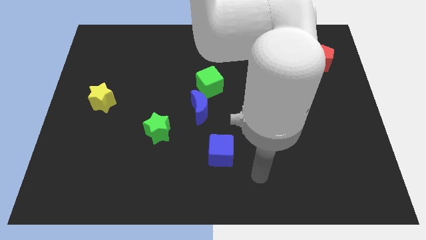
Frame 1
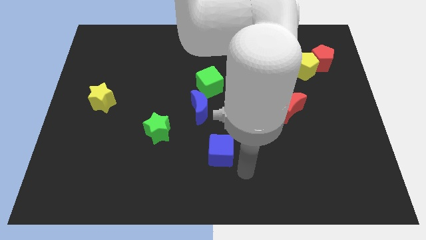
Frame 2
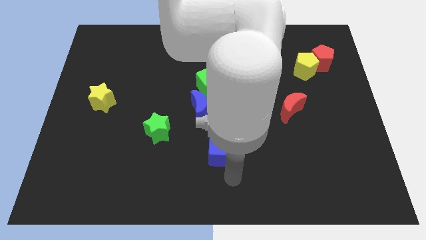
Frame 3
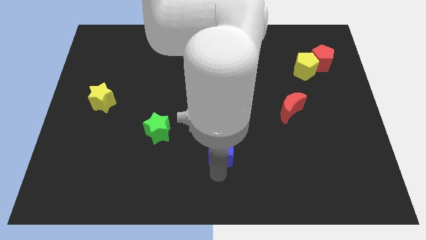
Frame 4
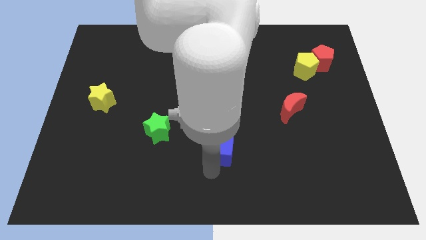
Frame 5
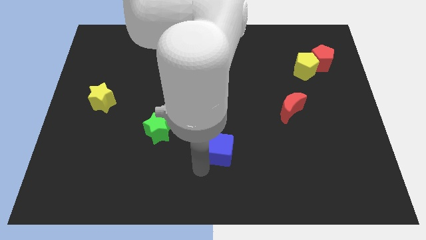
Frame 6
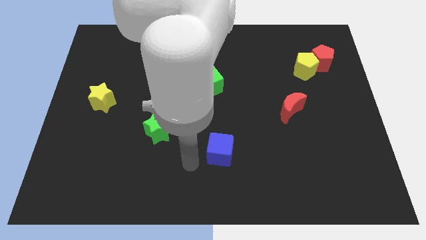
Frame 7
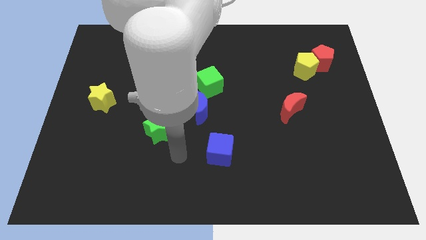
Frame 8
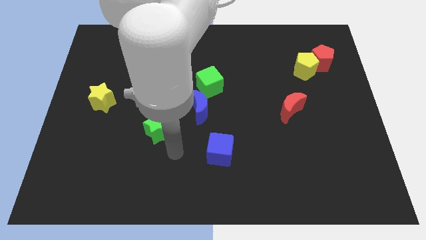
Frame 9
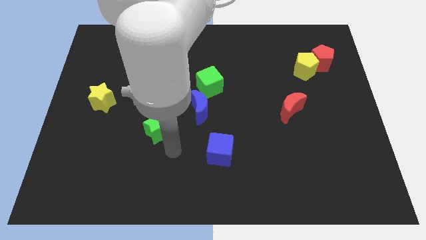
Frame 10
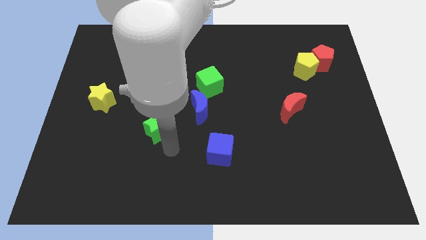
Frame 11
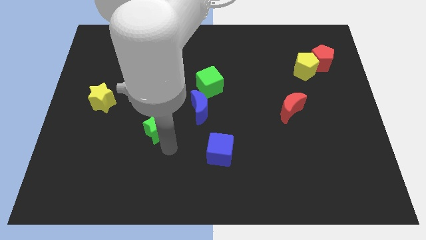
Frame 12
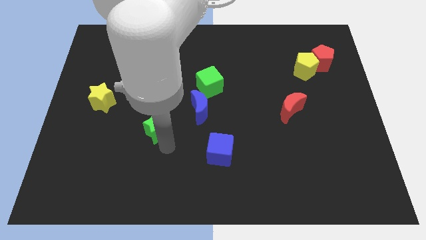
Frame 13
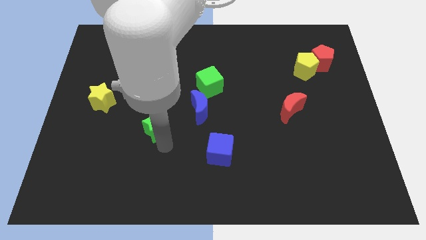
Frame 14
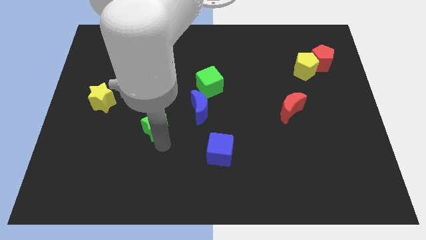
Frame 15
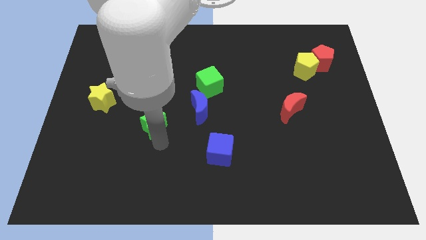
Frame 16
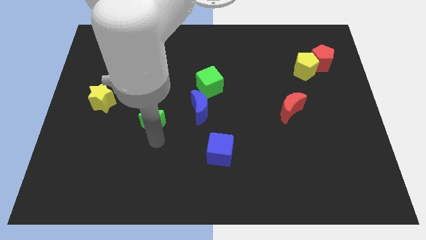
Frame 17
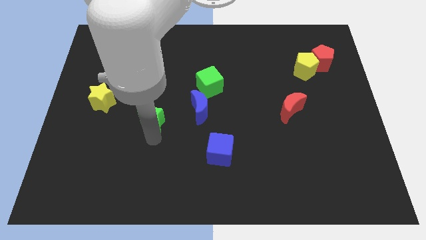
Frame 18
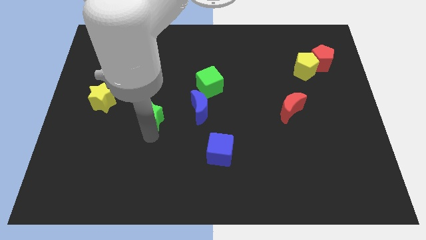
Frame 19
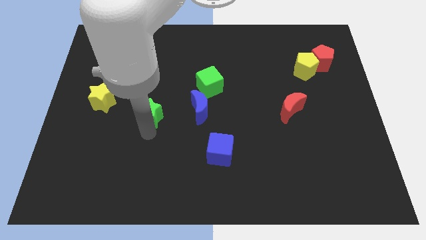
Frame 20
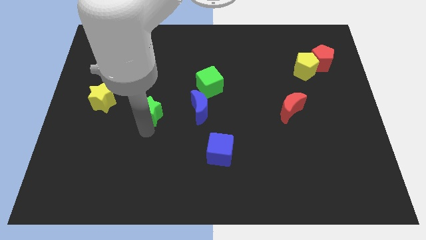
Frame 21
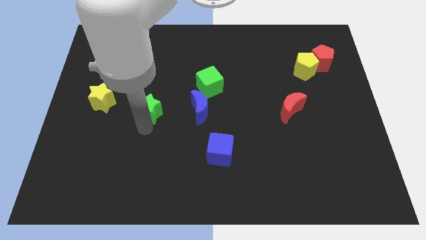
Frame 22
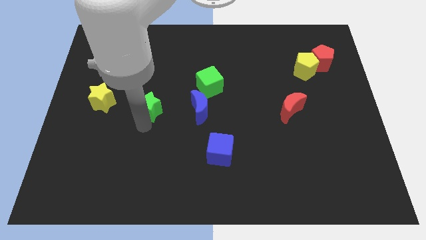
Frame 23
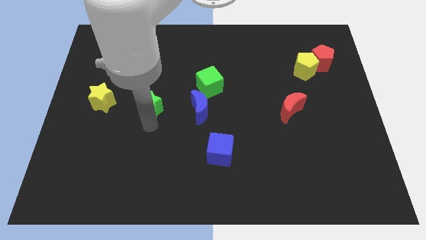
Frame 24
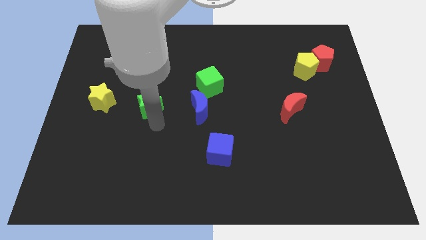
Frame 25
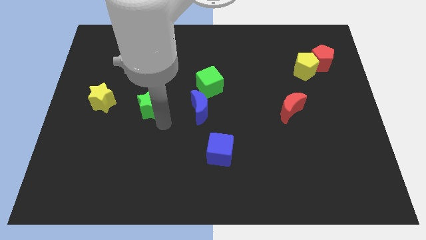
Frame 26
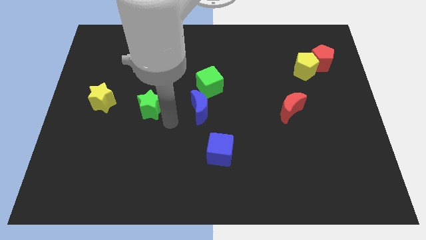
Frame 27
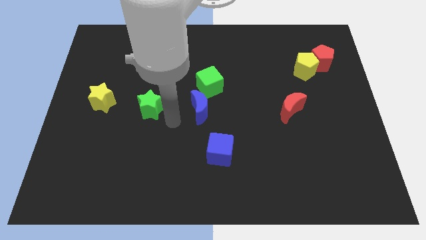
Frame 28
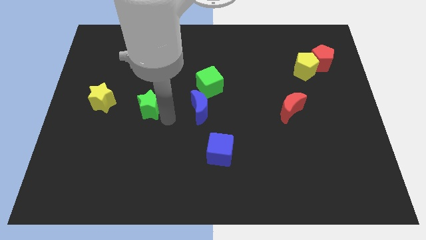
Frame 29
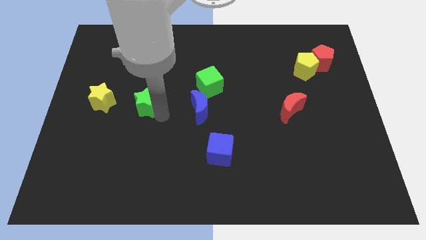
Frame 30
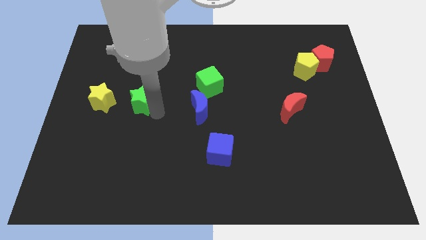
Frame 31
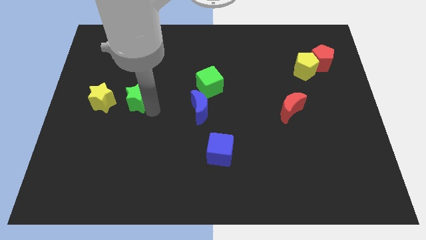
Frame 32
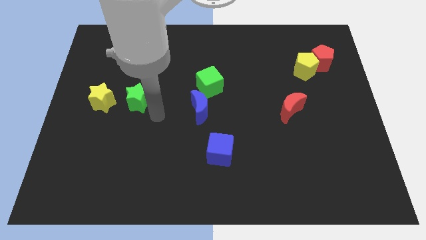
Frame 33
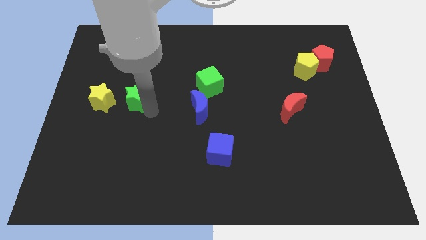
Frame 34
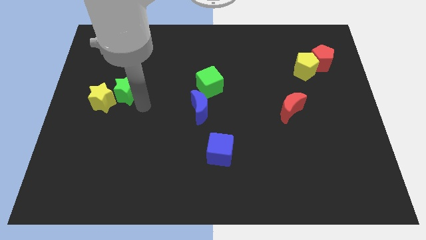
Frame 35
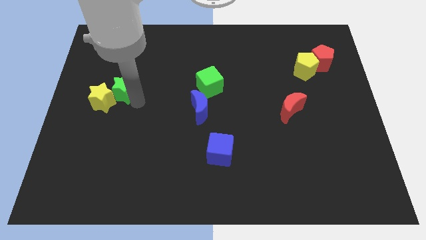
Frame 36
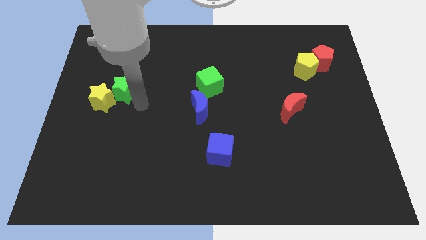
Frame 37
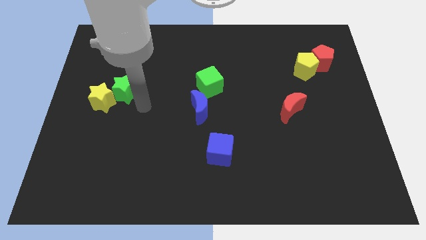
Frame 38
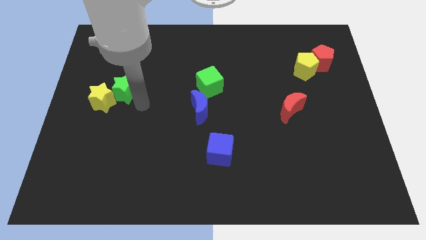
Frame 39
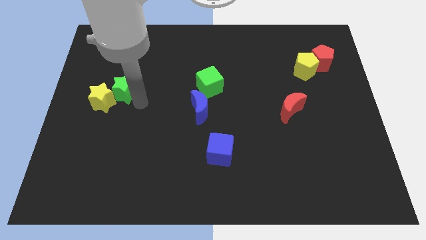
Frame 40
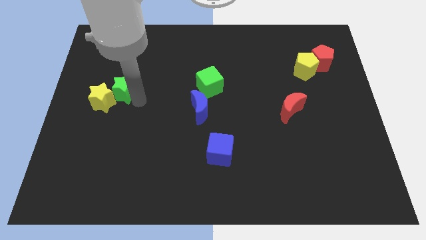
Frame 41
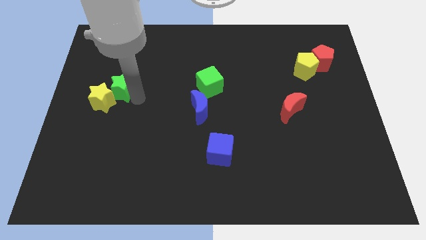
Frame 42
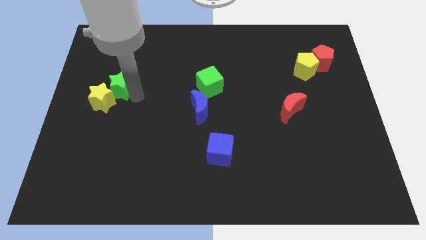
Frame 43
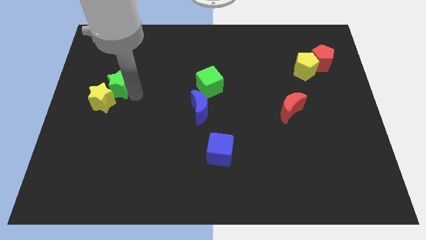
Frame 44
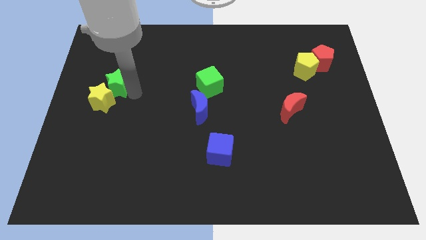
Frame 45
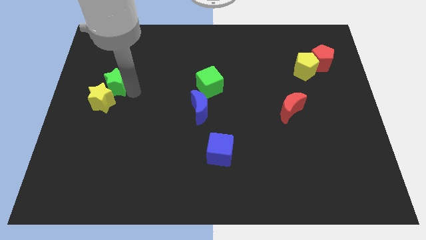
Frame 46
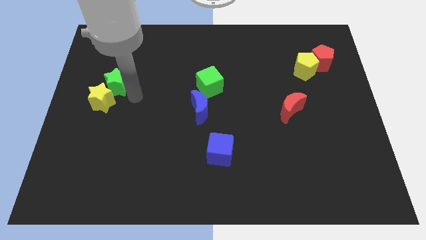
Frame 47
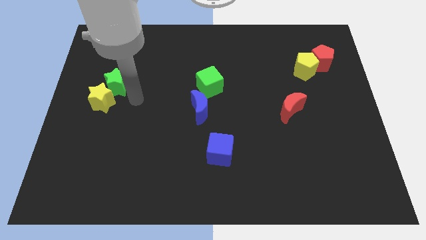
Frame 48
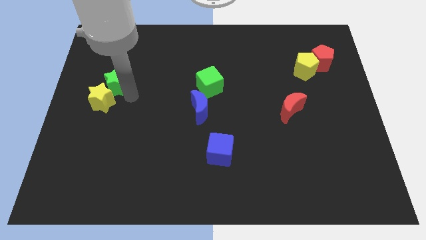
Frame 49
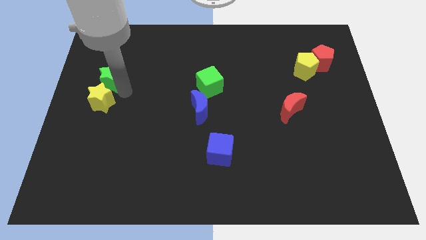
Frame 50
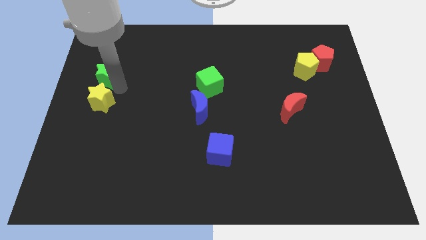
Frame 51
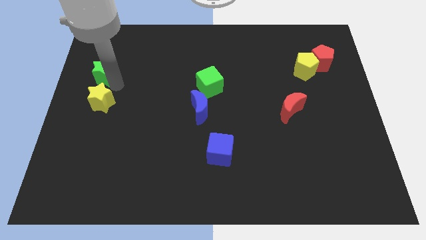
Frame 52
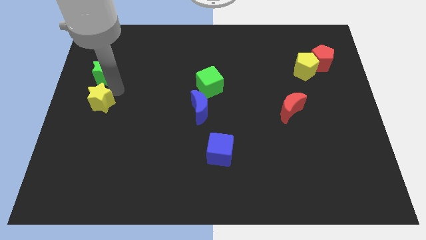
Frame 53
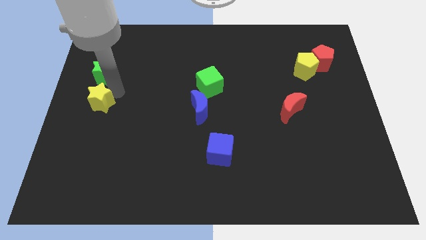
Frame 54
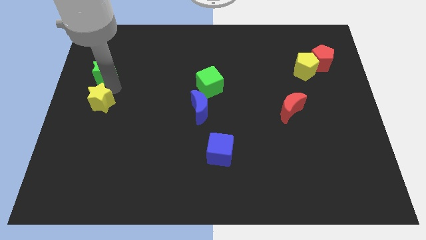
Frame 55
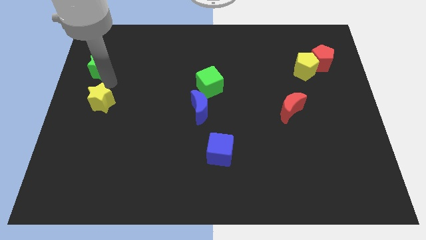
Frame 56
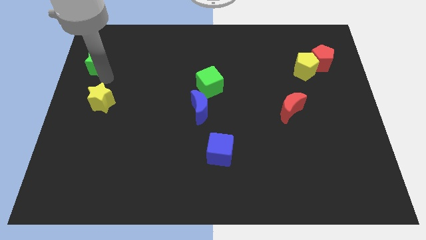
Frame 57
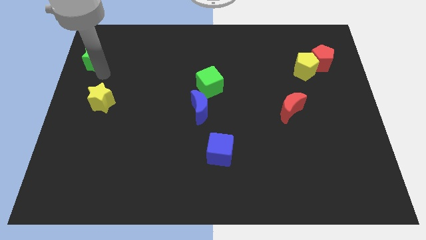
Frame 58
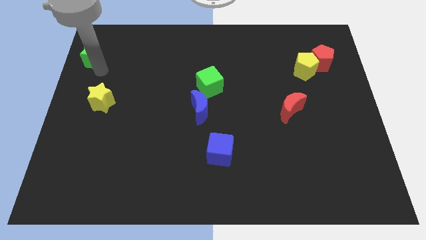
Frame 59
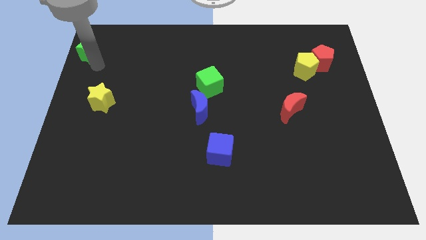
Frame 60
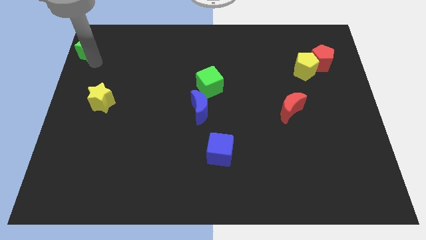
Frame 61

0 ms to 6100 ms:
move the green star to the top left
